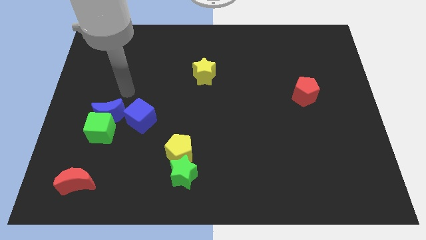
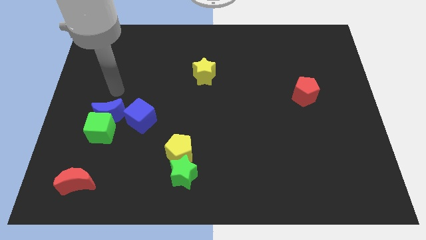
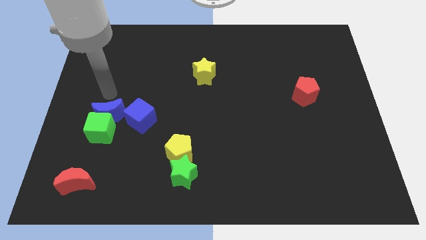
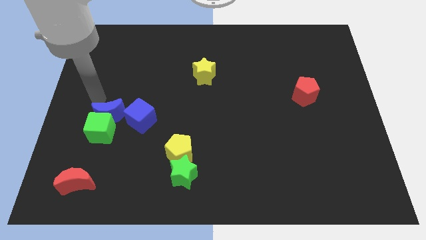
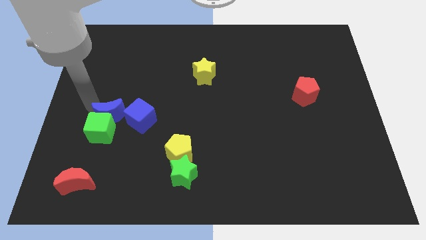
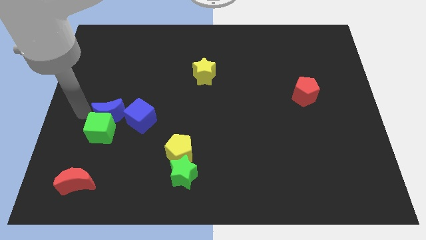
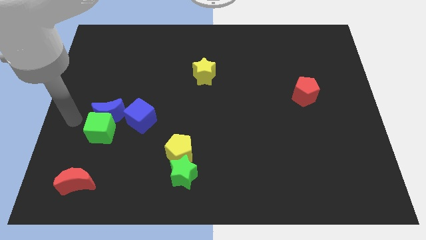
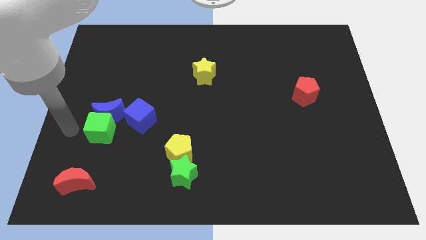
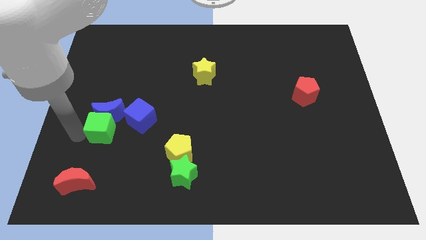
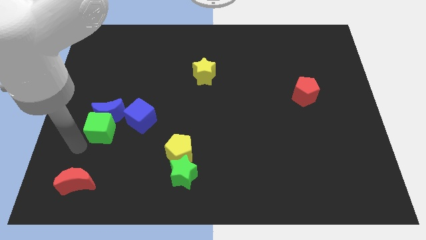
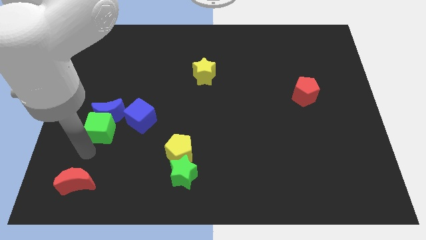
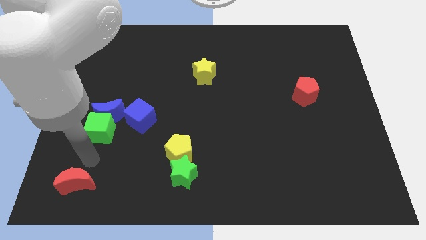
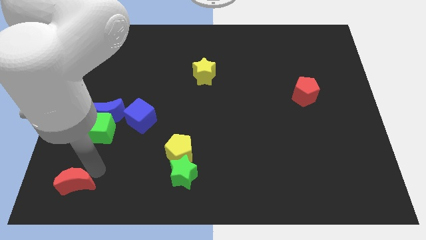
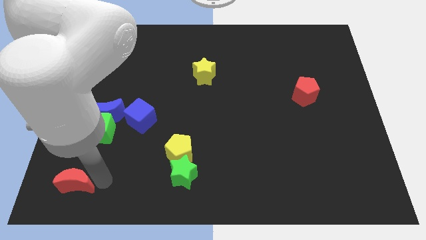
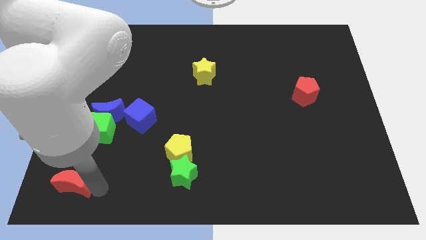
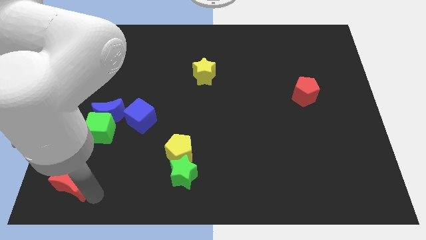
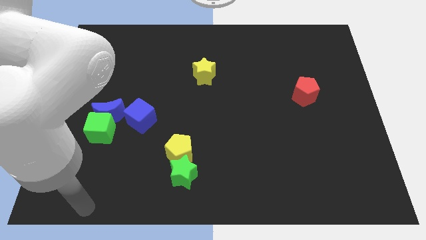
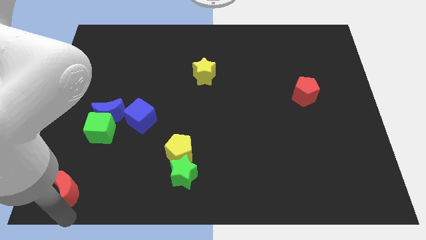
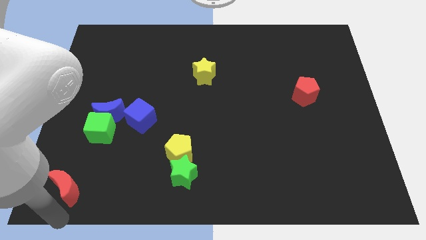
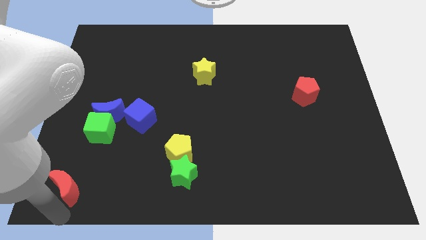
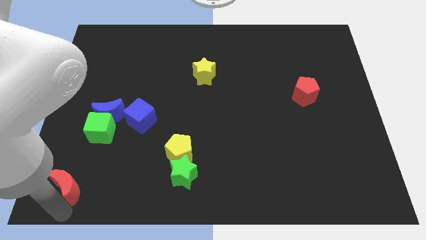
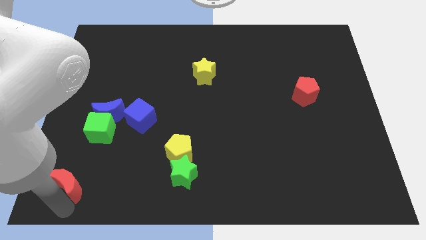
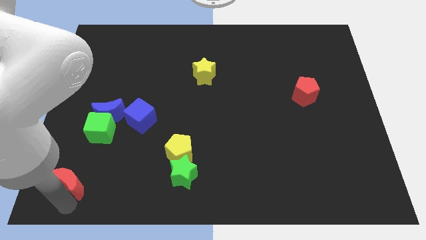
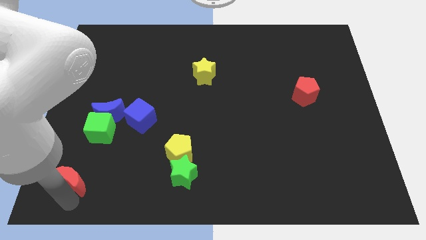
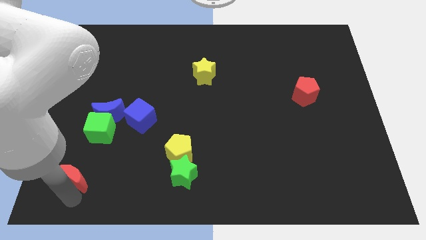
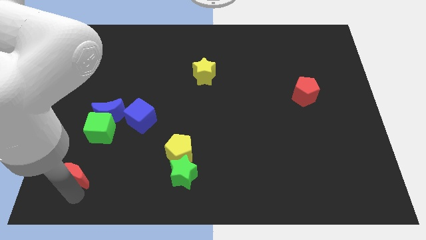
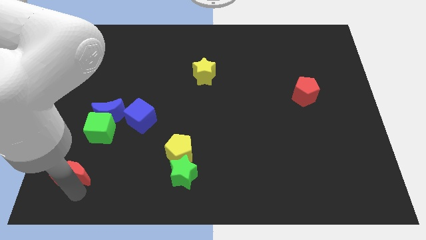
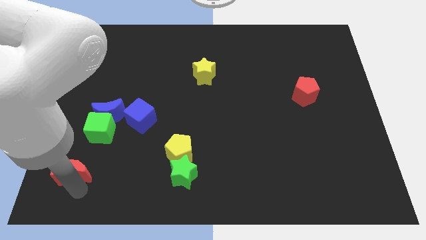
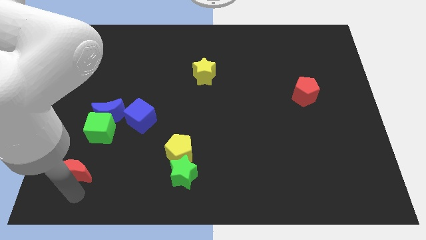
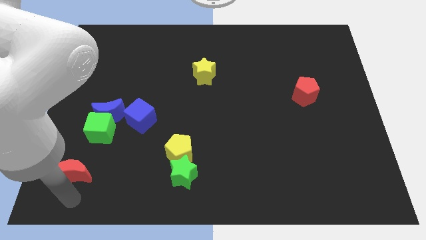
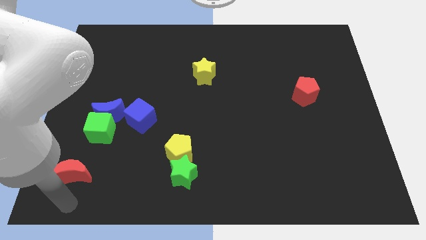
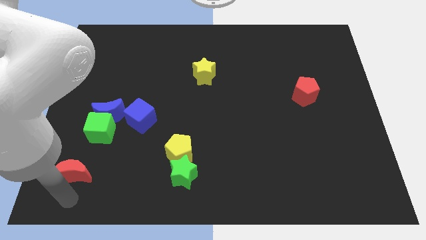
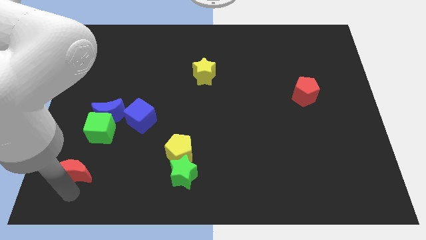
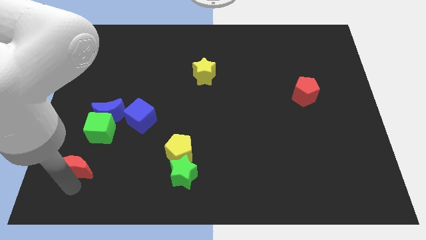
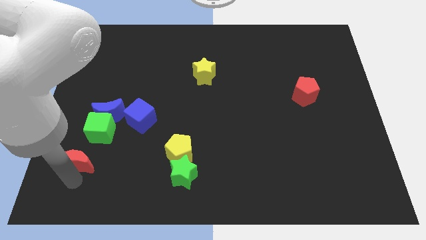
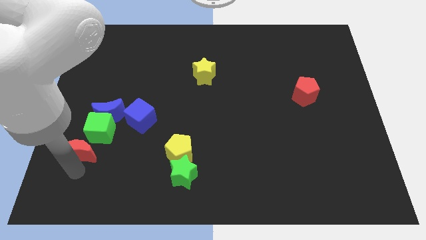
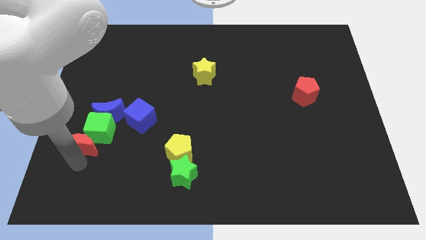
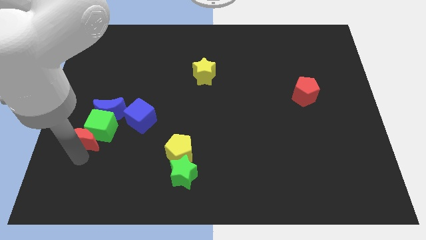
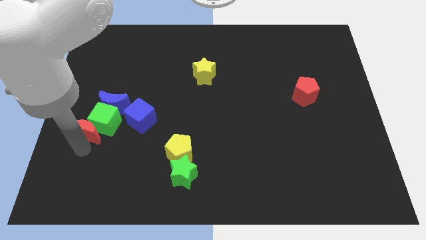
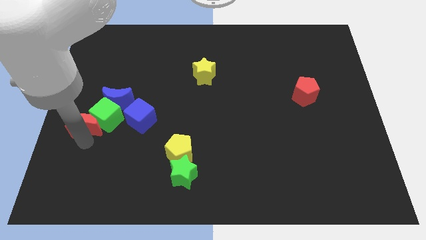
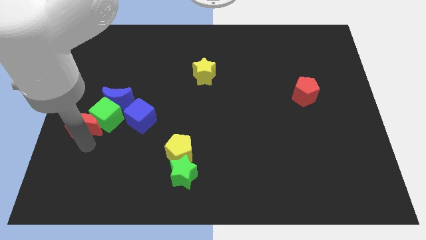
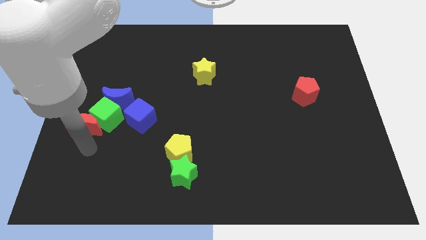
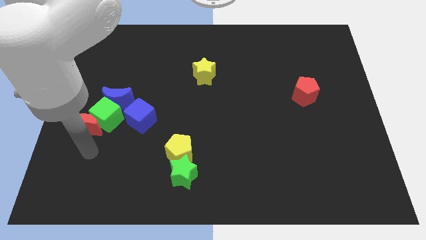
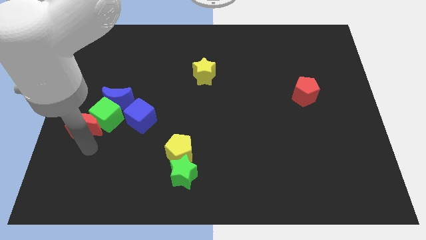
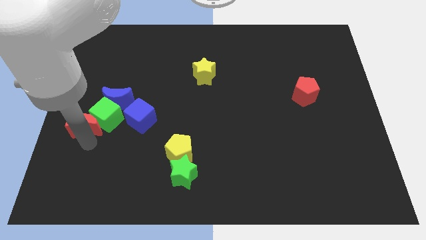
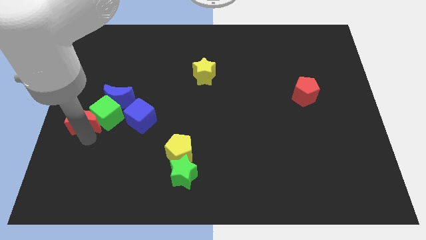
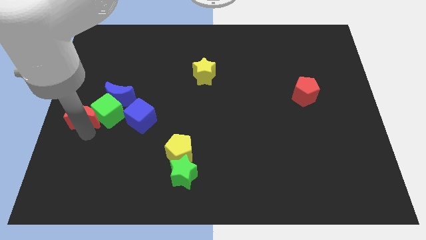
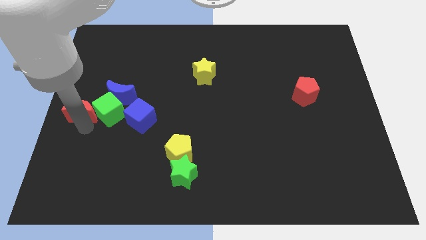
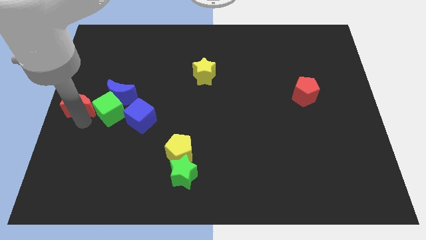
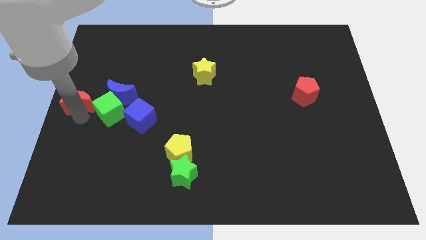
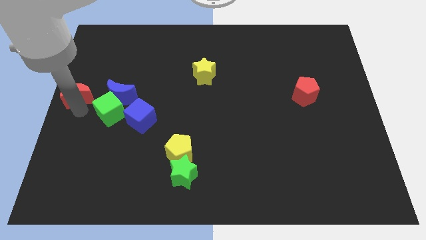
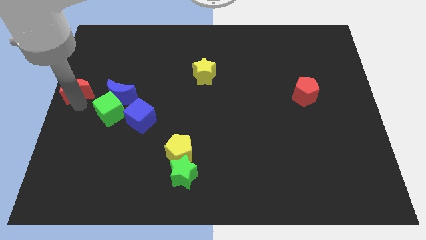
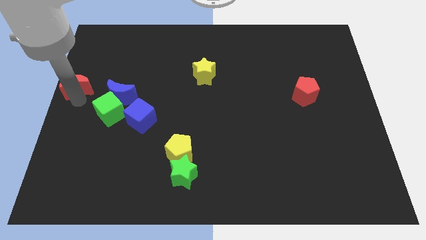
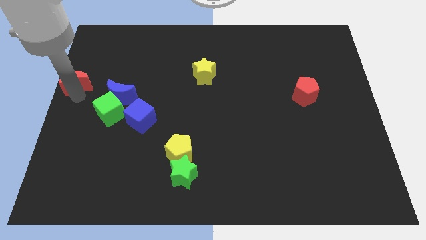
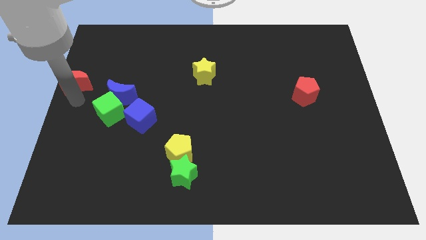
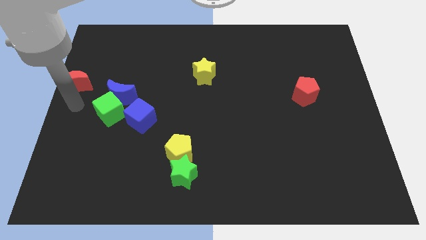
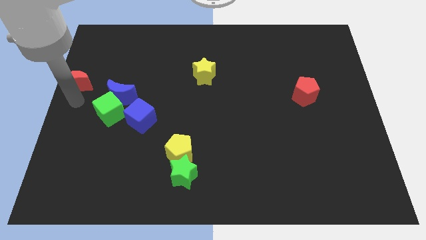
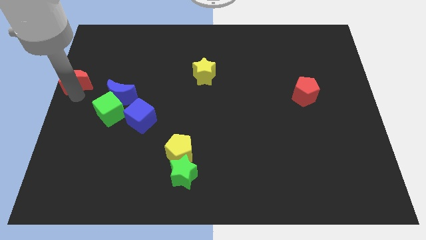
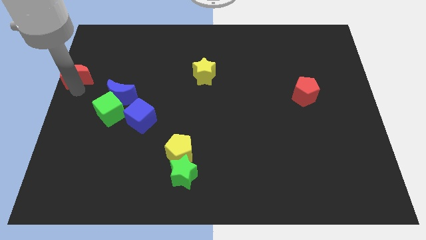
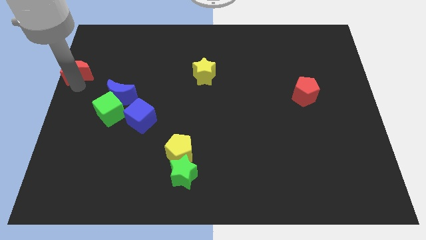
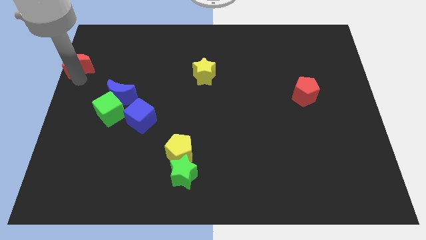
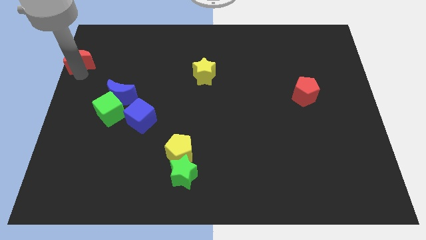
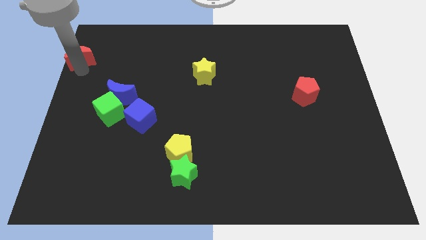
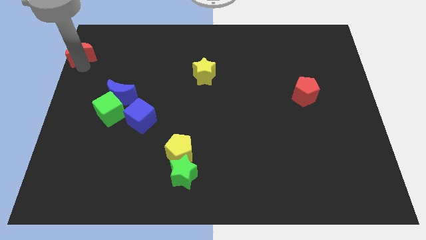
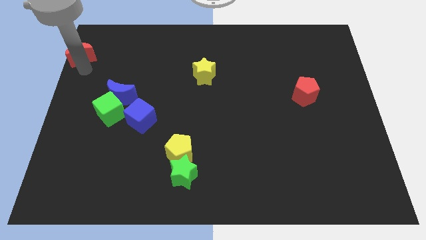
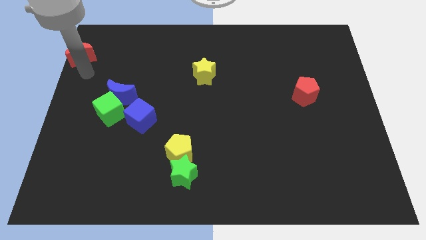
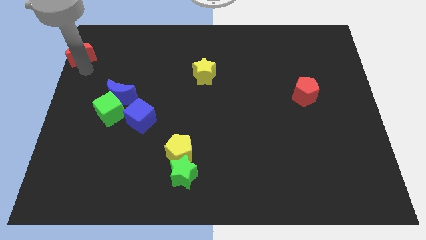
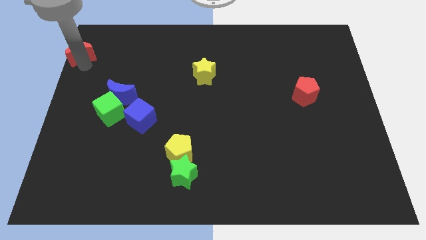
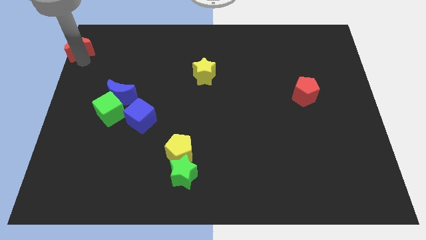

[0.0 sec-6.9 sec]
slide the red moon to the top left
